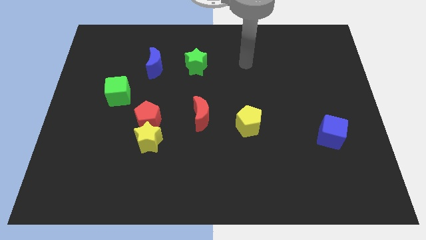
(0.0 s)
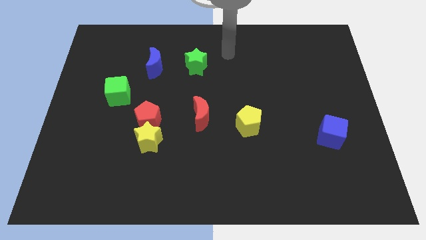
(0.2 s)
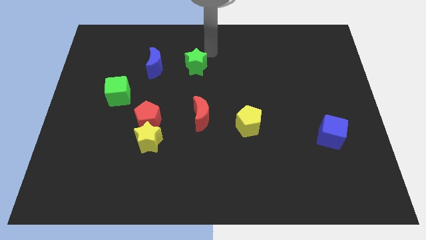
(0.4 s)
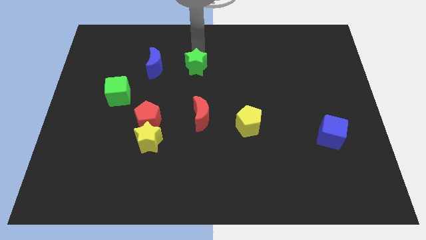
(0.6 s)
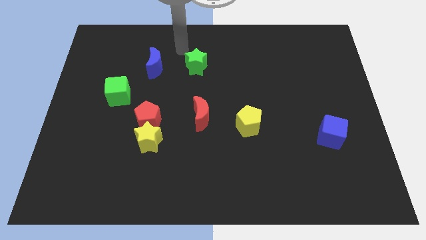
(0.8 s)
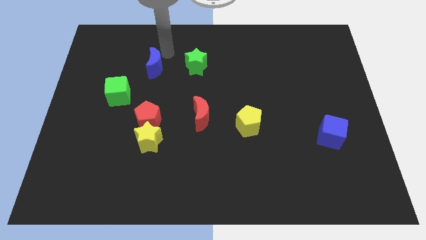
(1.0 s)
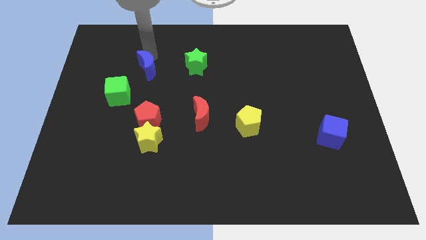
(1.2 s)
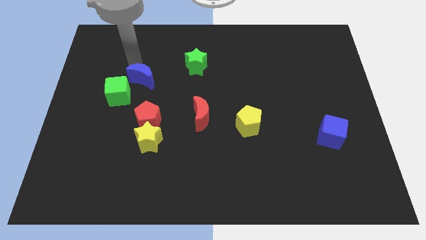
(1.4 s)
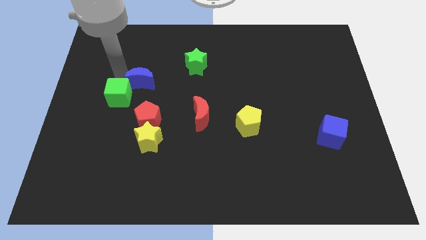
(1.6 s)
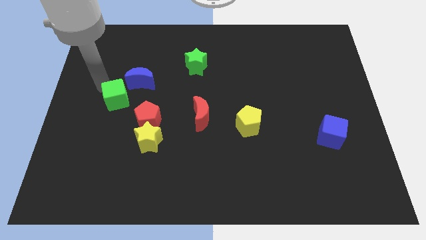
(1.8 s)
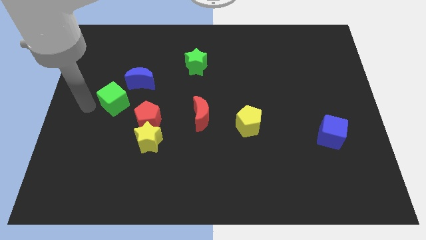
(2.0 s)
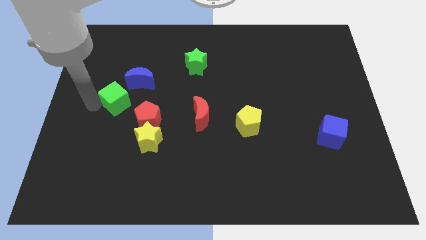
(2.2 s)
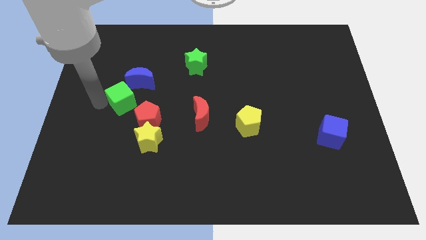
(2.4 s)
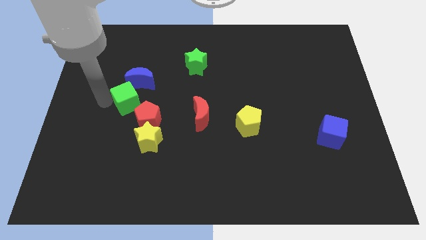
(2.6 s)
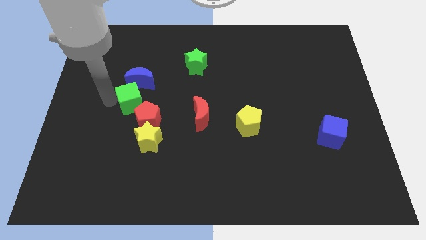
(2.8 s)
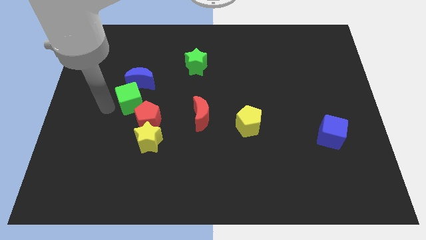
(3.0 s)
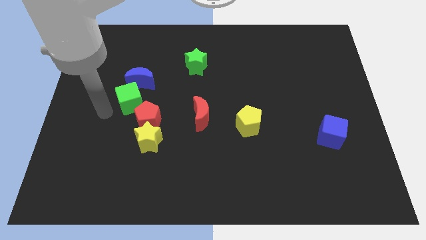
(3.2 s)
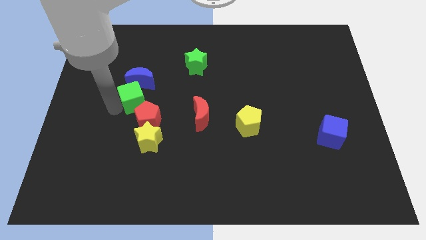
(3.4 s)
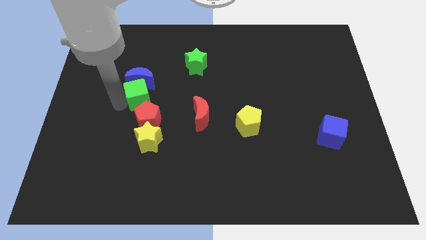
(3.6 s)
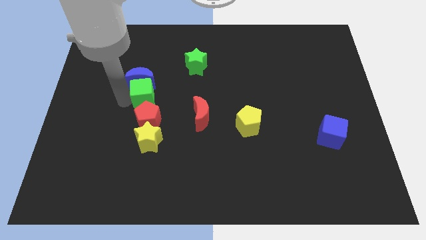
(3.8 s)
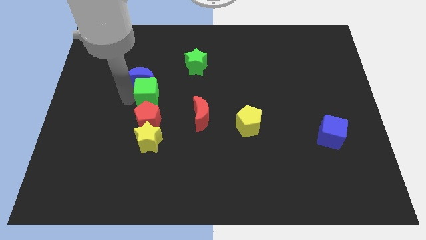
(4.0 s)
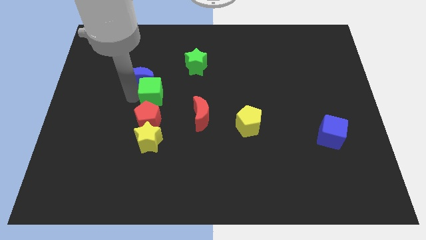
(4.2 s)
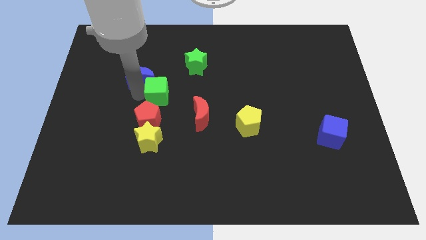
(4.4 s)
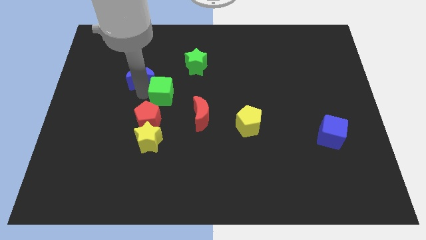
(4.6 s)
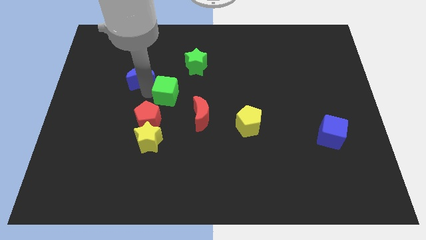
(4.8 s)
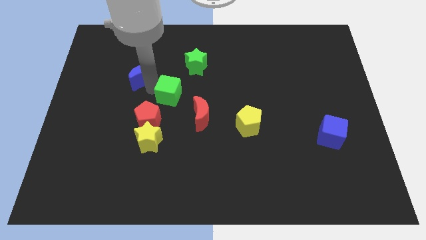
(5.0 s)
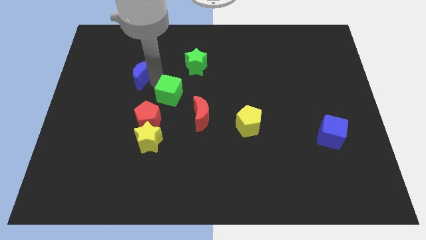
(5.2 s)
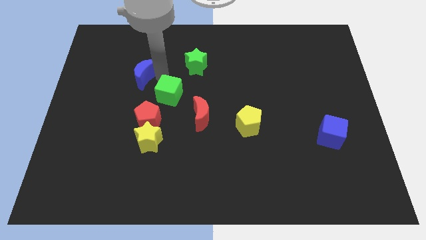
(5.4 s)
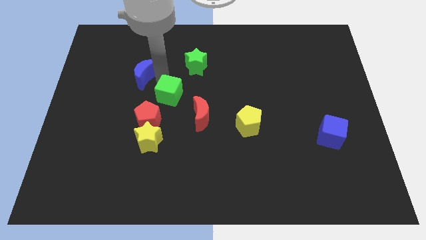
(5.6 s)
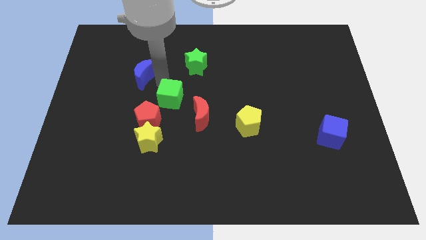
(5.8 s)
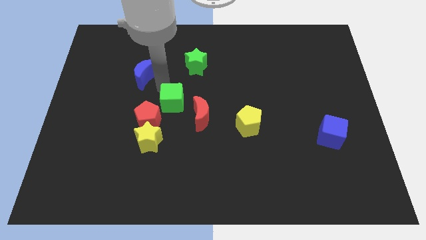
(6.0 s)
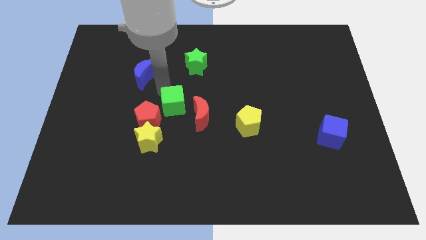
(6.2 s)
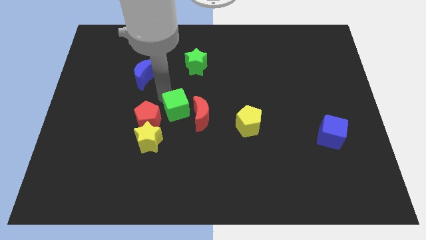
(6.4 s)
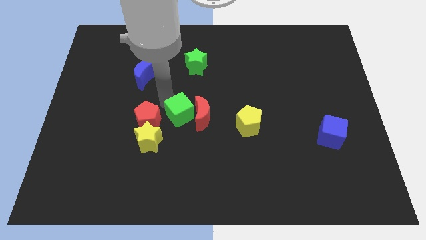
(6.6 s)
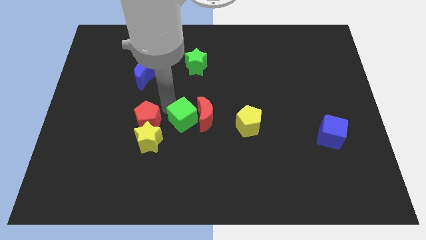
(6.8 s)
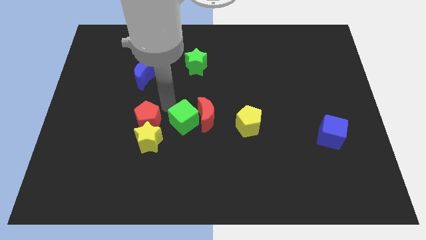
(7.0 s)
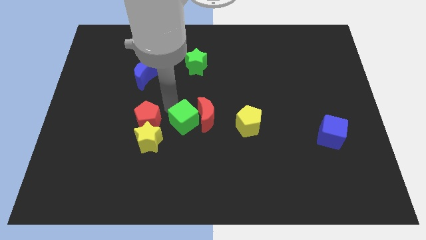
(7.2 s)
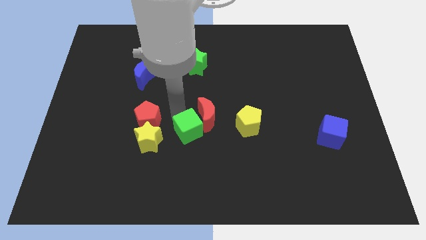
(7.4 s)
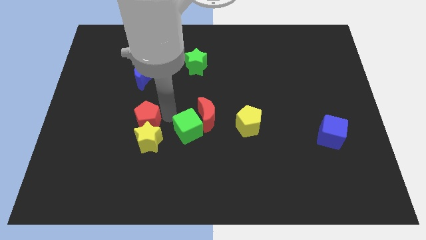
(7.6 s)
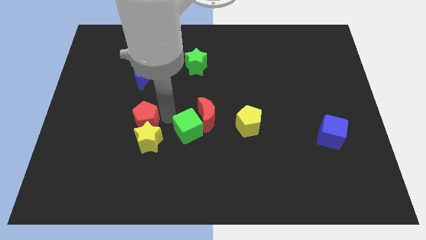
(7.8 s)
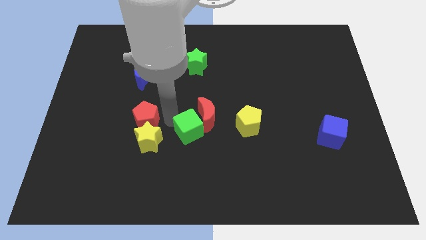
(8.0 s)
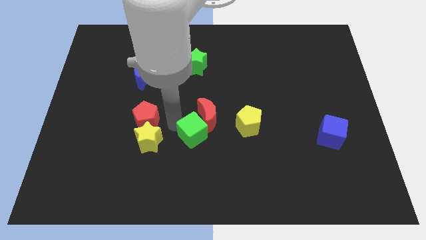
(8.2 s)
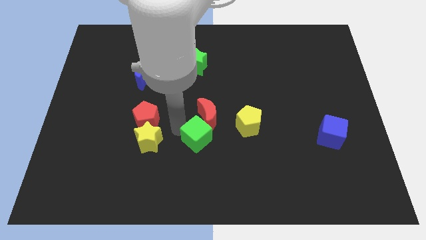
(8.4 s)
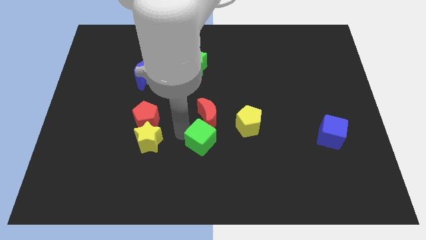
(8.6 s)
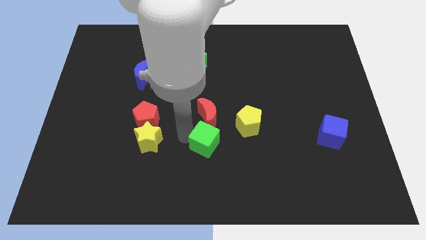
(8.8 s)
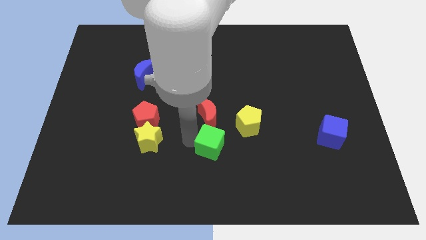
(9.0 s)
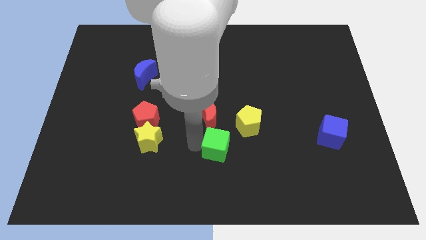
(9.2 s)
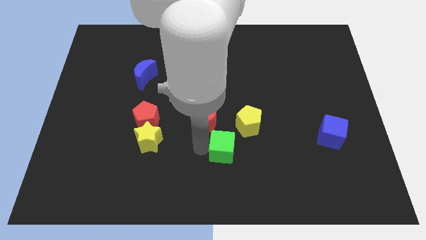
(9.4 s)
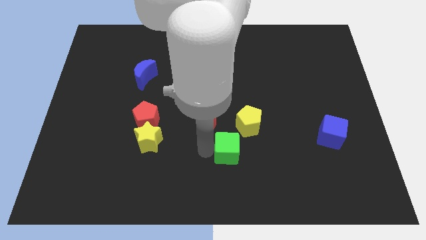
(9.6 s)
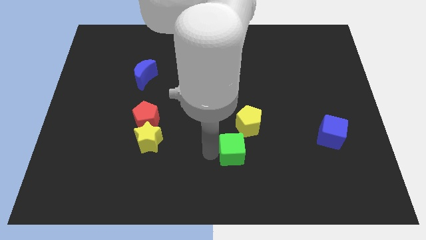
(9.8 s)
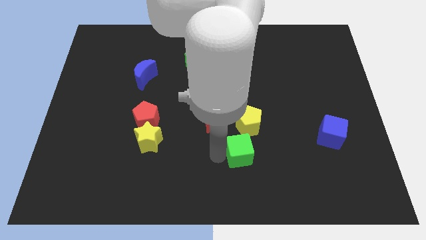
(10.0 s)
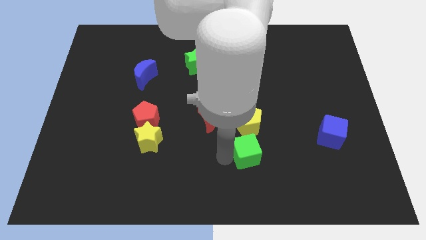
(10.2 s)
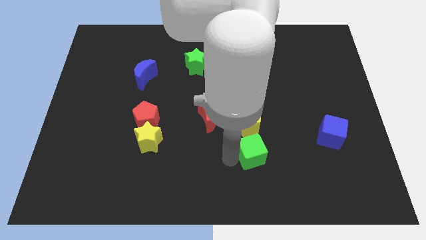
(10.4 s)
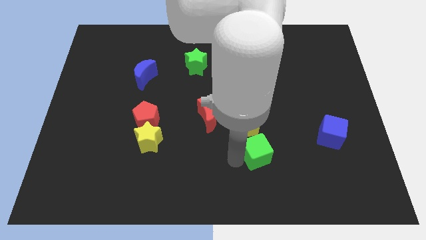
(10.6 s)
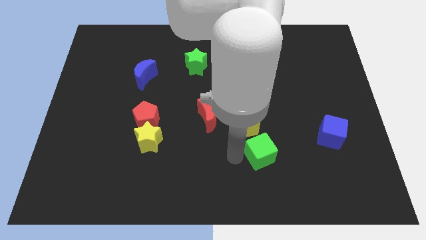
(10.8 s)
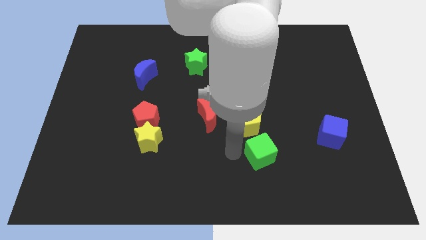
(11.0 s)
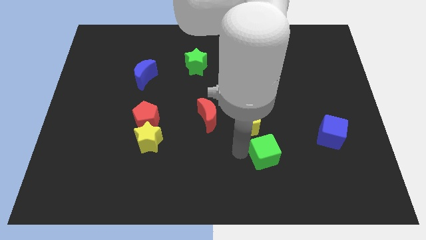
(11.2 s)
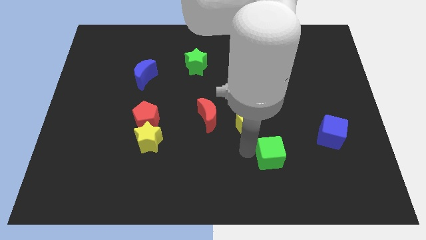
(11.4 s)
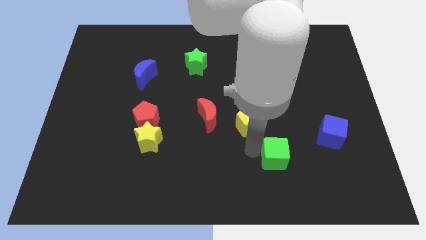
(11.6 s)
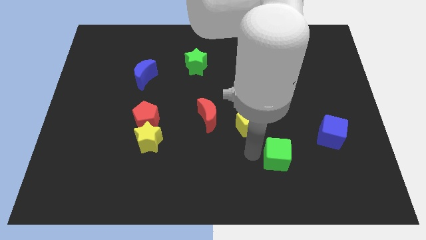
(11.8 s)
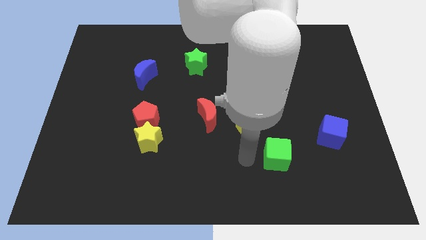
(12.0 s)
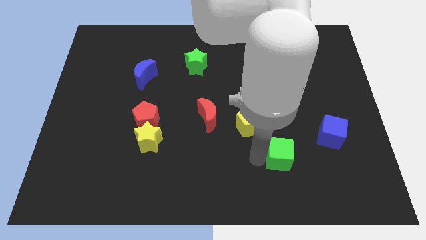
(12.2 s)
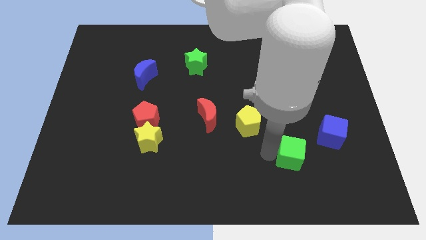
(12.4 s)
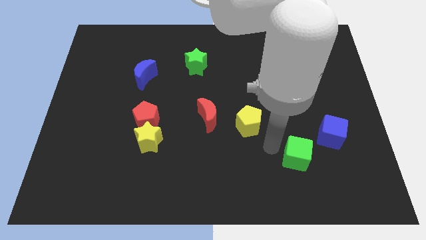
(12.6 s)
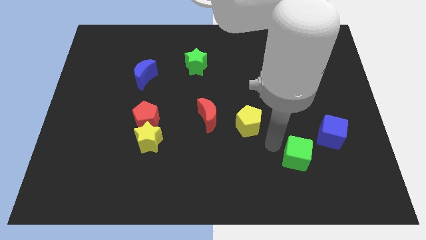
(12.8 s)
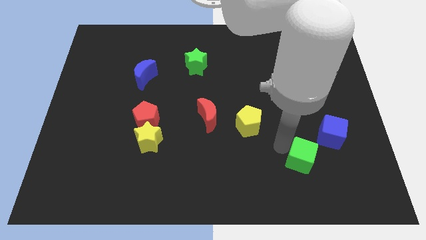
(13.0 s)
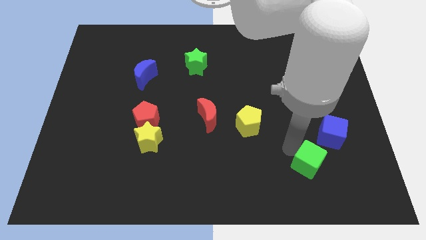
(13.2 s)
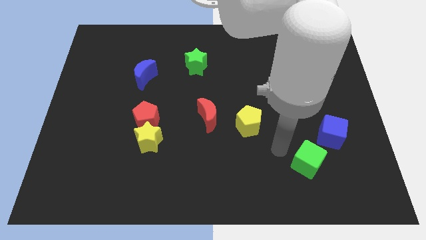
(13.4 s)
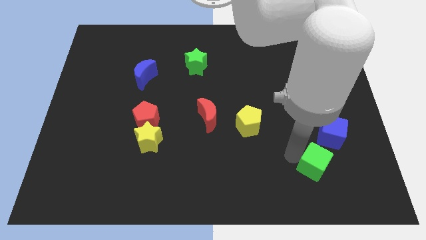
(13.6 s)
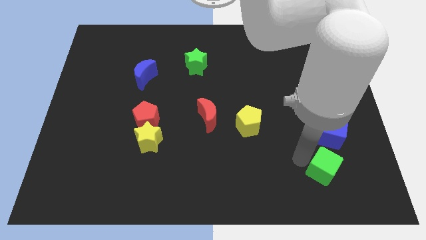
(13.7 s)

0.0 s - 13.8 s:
slide the green cube below the blue cube

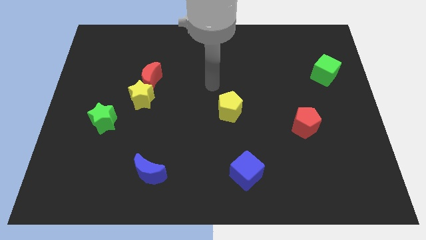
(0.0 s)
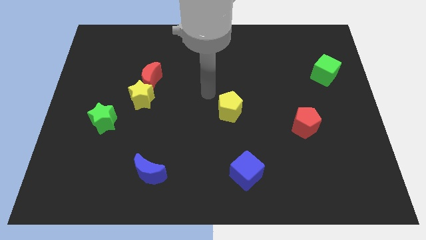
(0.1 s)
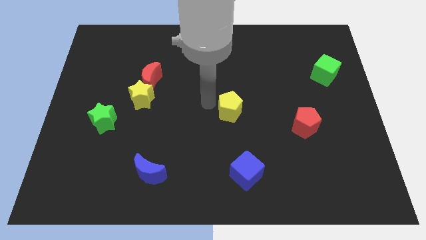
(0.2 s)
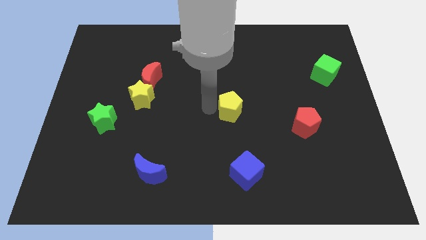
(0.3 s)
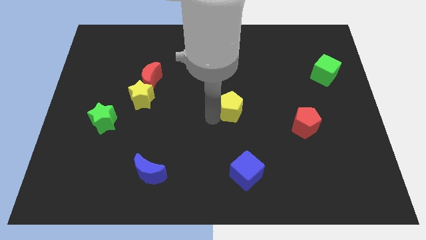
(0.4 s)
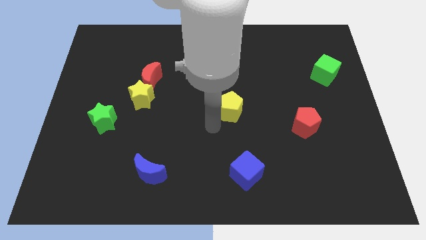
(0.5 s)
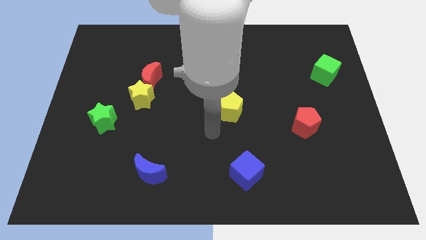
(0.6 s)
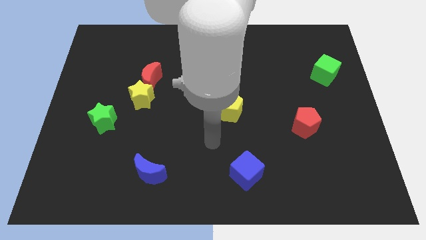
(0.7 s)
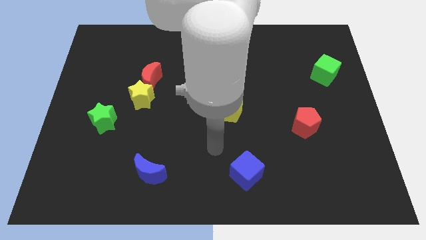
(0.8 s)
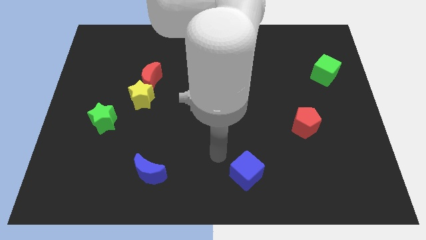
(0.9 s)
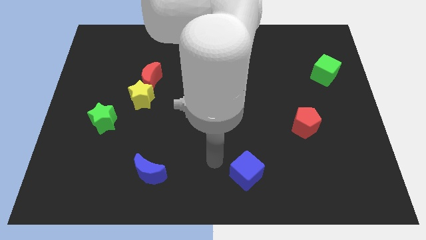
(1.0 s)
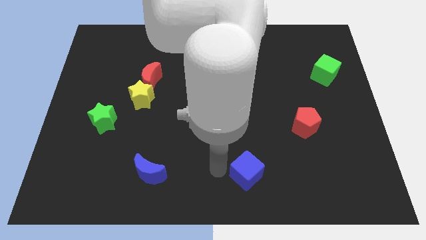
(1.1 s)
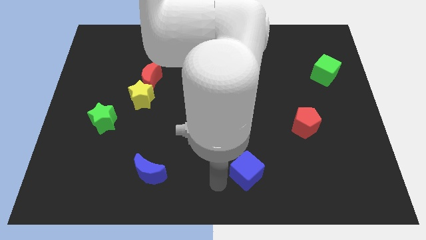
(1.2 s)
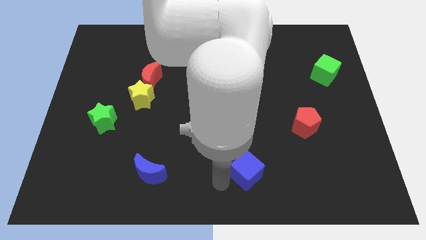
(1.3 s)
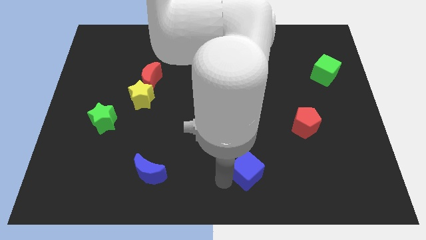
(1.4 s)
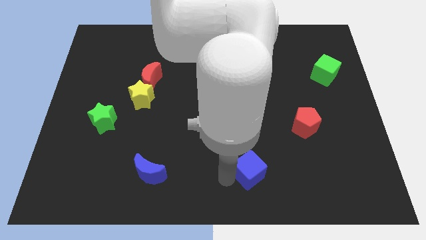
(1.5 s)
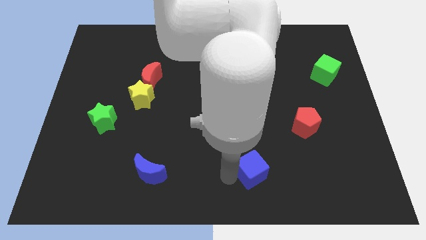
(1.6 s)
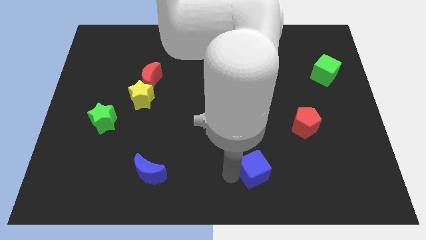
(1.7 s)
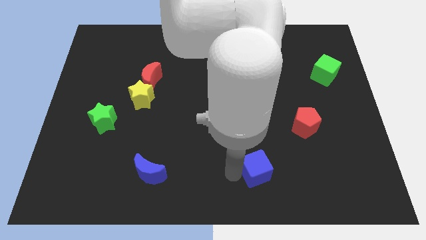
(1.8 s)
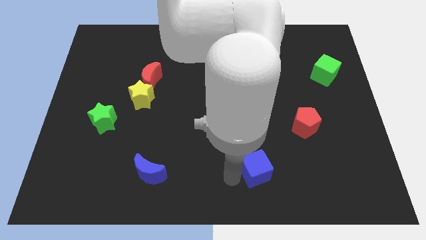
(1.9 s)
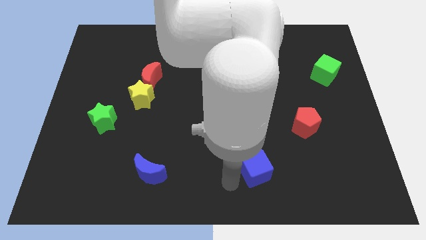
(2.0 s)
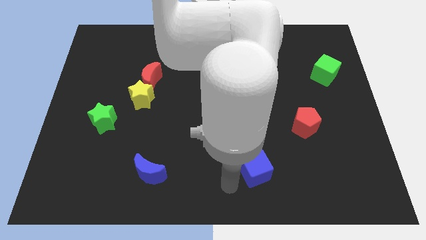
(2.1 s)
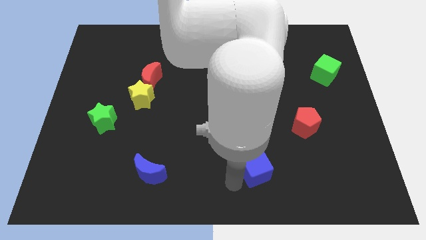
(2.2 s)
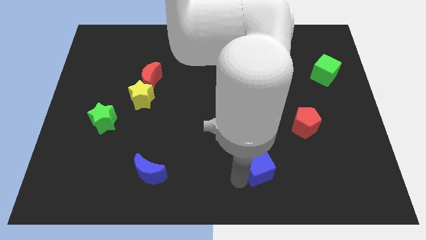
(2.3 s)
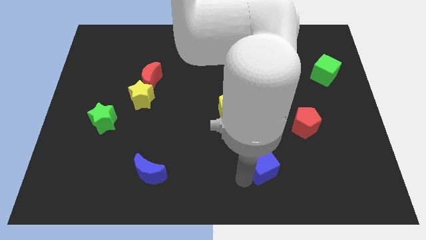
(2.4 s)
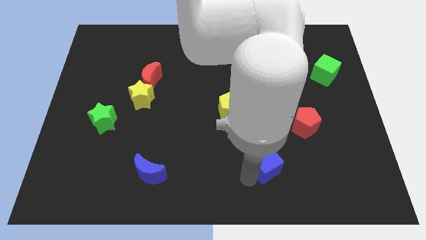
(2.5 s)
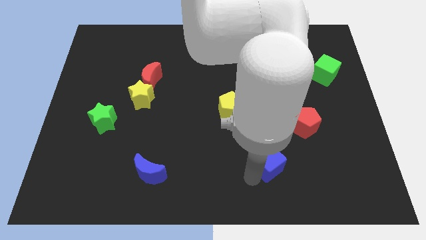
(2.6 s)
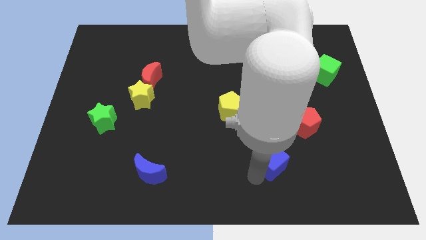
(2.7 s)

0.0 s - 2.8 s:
put the blue cube to the bottom left of the red pentagon
